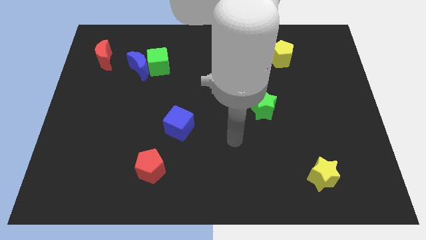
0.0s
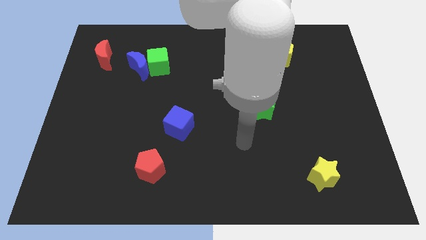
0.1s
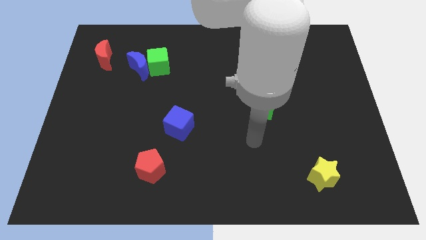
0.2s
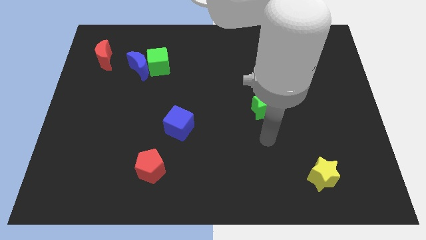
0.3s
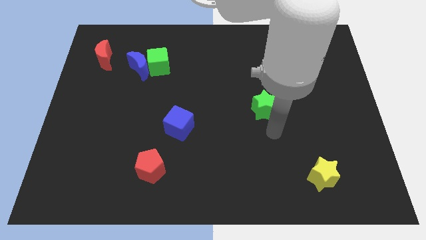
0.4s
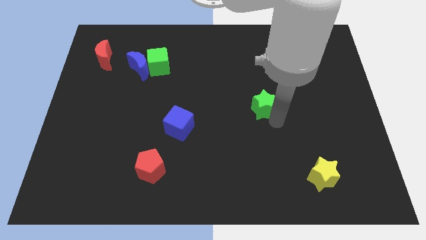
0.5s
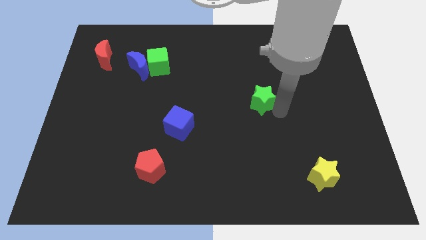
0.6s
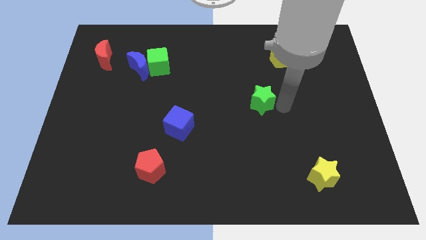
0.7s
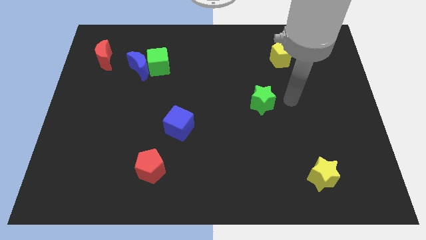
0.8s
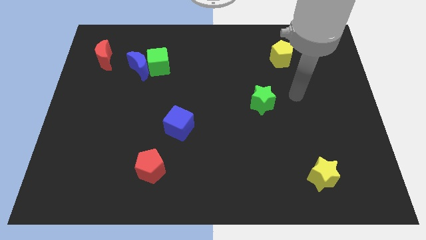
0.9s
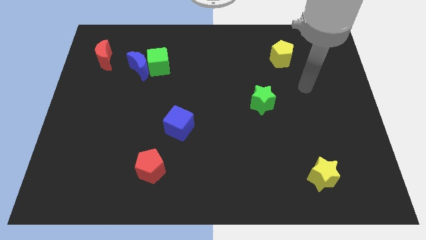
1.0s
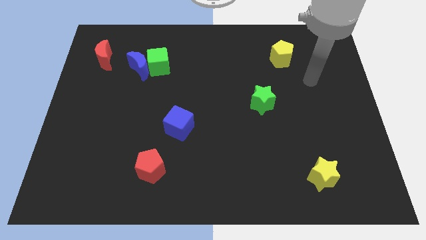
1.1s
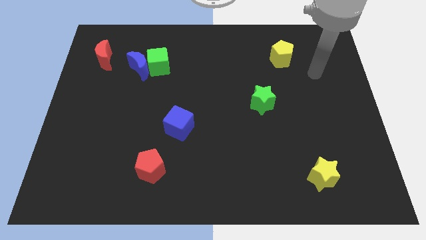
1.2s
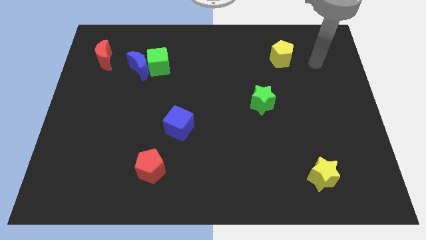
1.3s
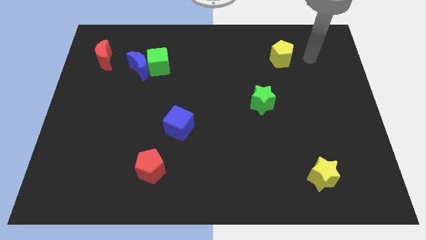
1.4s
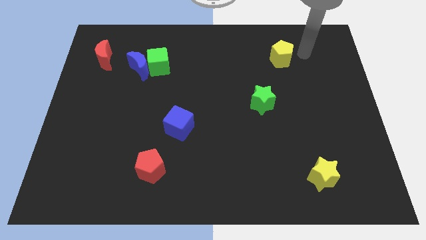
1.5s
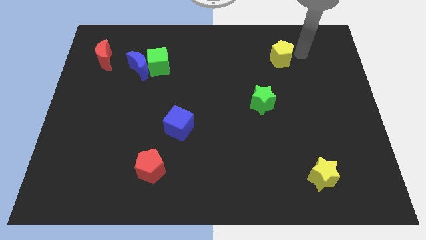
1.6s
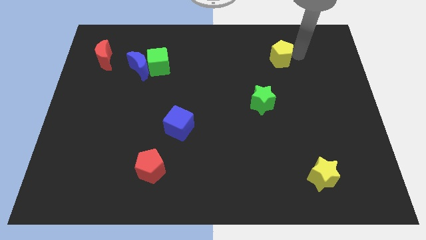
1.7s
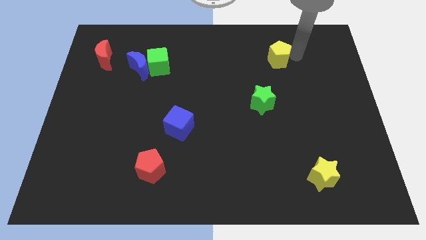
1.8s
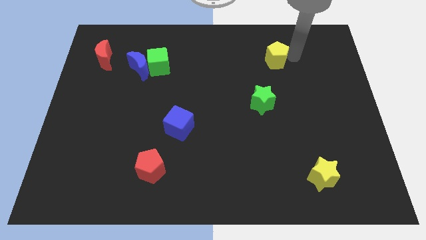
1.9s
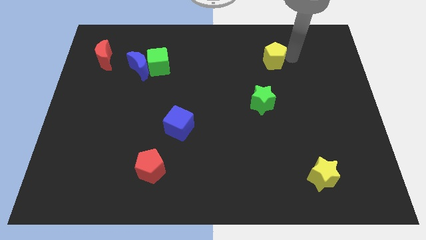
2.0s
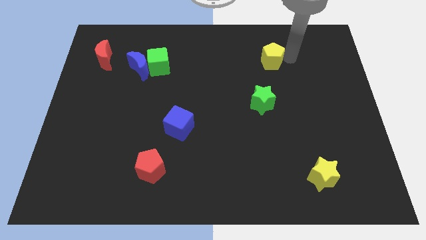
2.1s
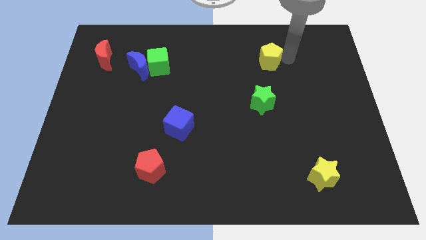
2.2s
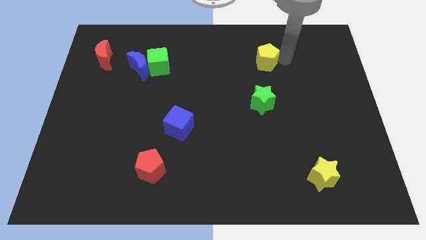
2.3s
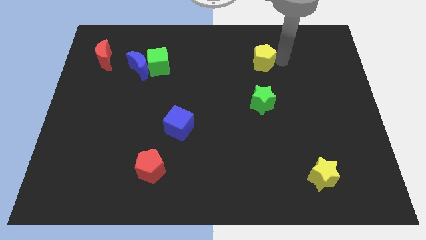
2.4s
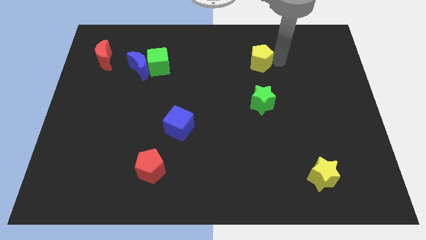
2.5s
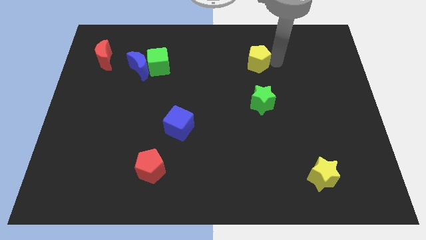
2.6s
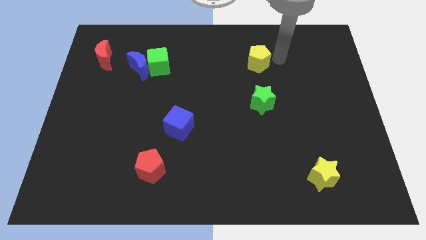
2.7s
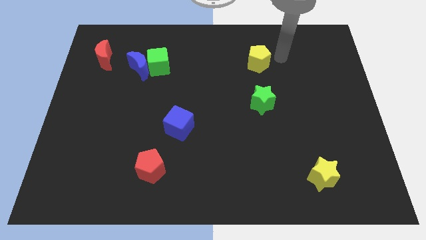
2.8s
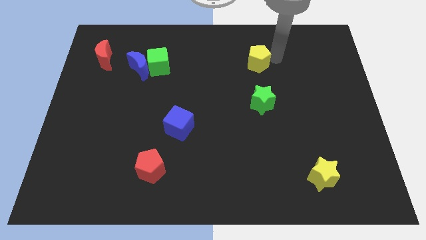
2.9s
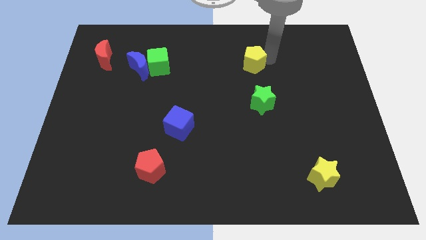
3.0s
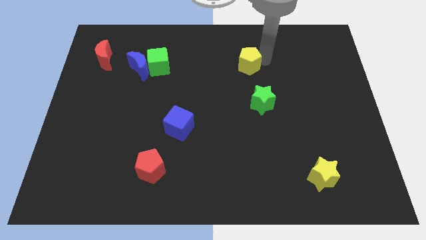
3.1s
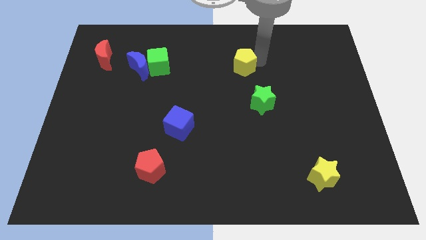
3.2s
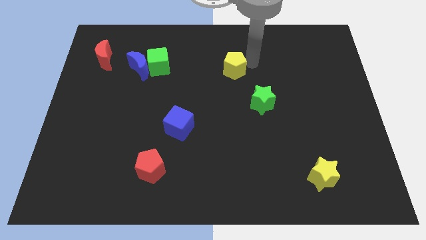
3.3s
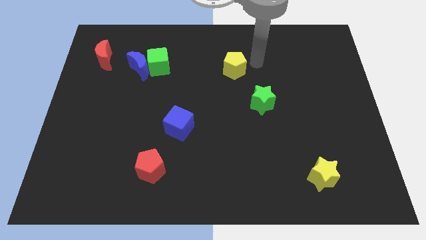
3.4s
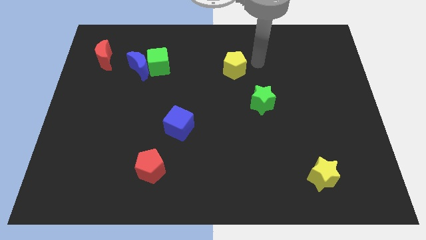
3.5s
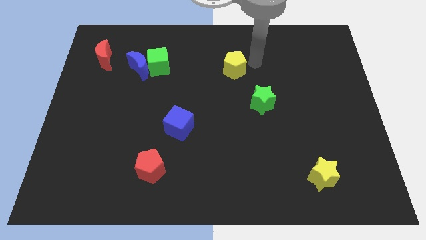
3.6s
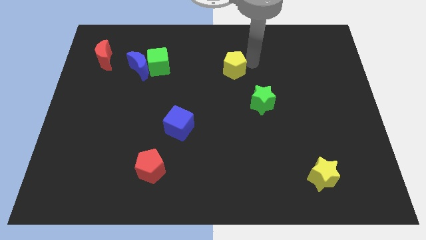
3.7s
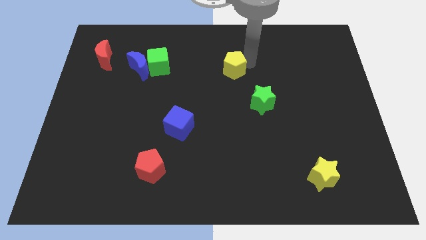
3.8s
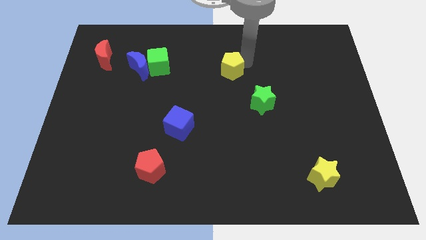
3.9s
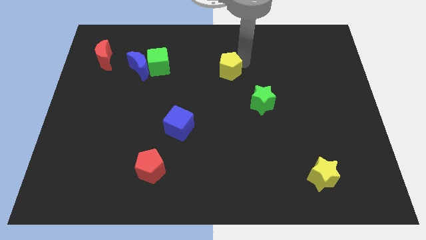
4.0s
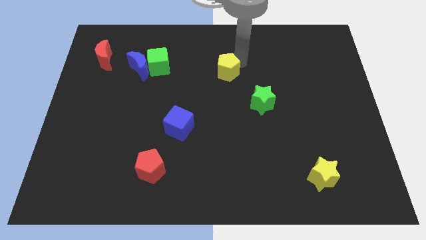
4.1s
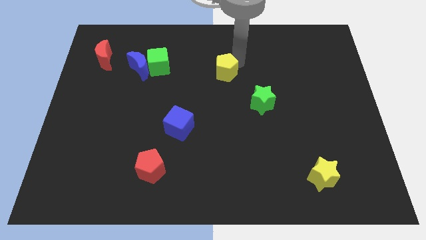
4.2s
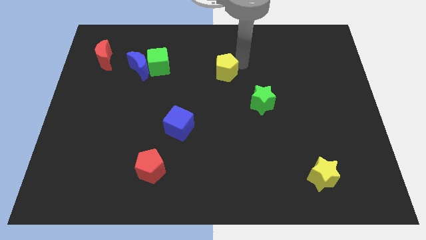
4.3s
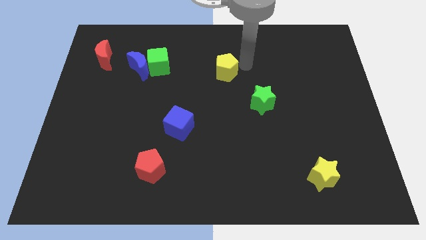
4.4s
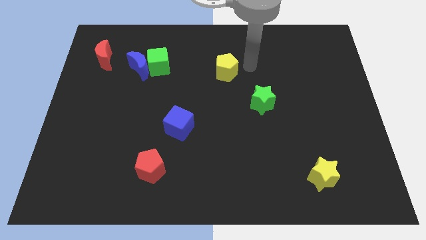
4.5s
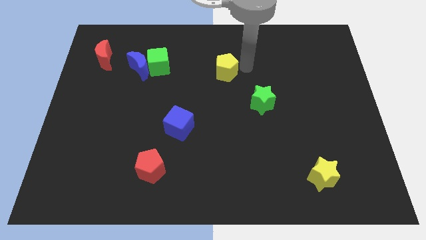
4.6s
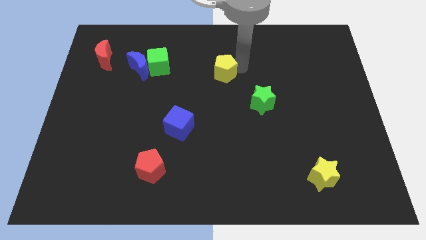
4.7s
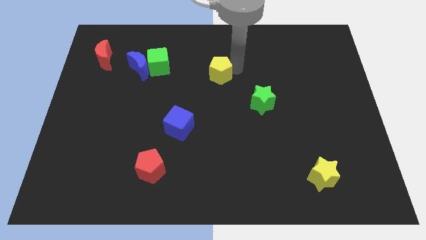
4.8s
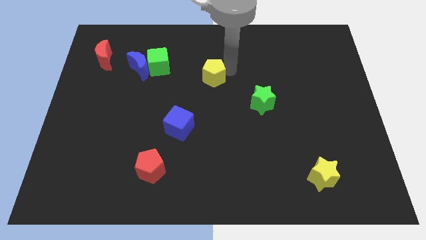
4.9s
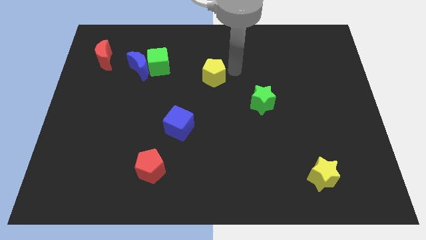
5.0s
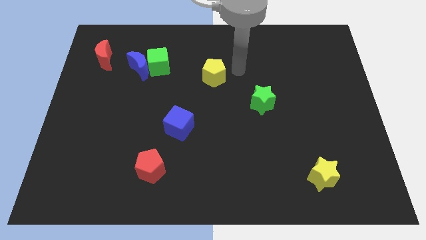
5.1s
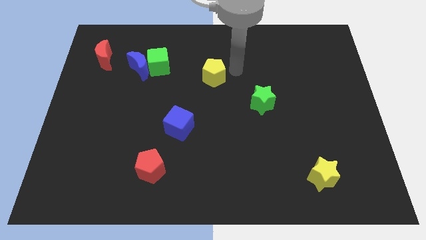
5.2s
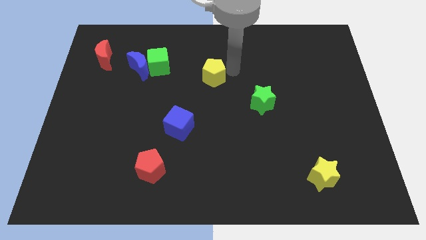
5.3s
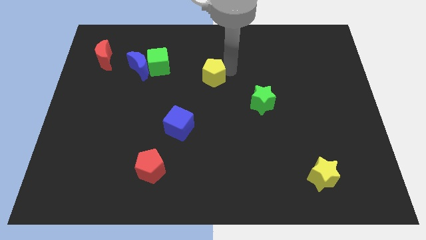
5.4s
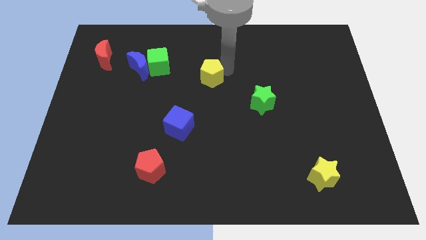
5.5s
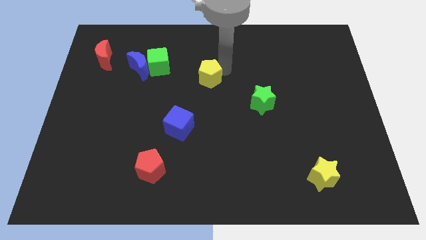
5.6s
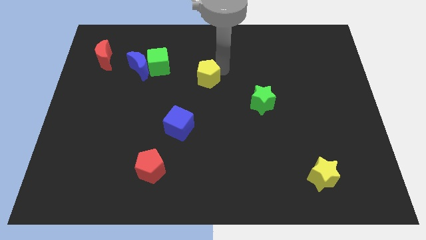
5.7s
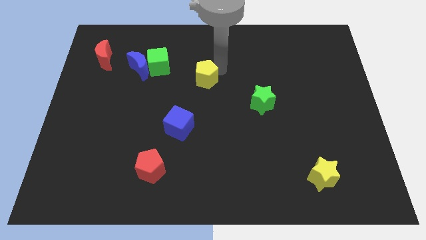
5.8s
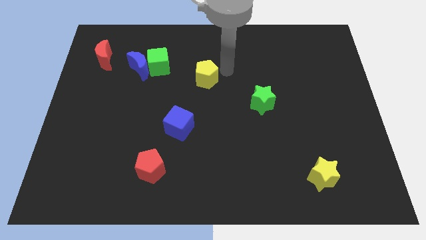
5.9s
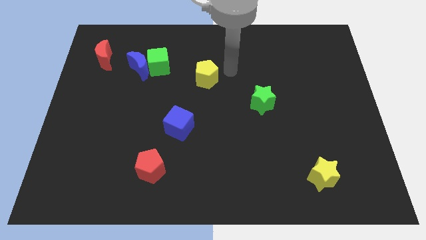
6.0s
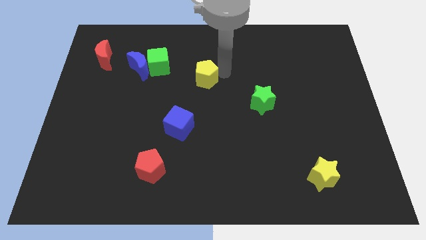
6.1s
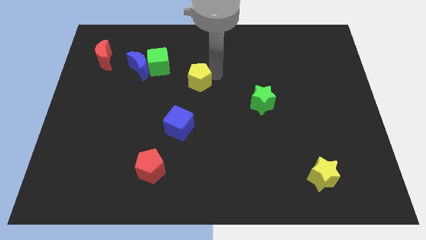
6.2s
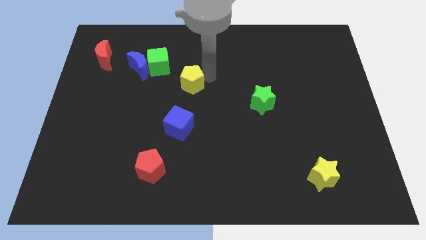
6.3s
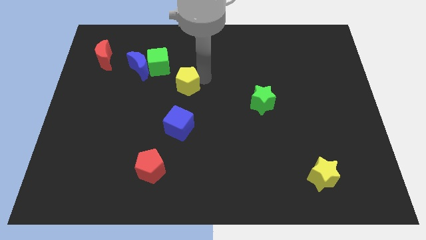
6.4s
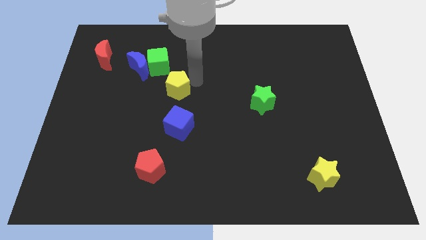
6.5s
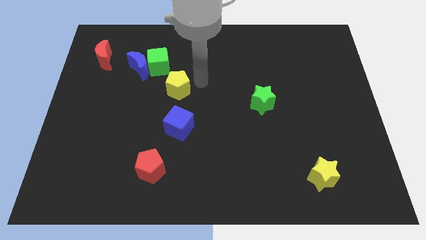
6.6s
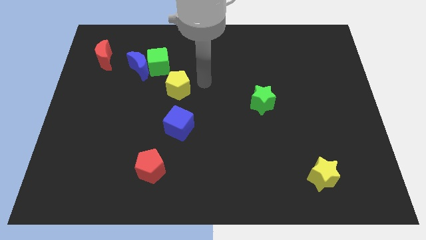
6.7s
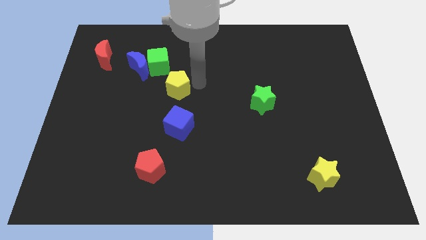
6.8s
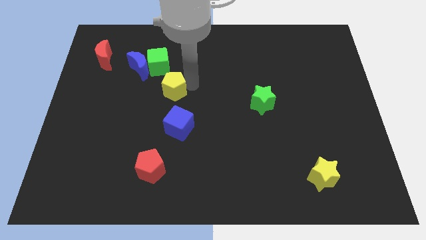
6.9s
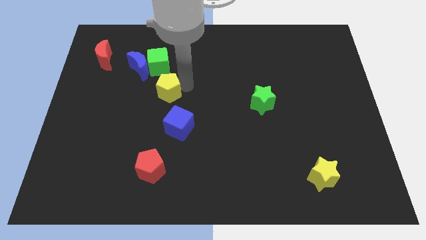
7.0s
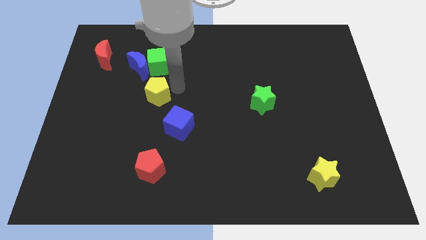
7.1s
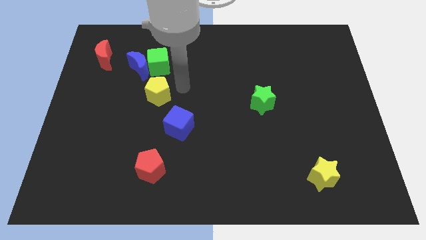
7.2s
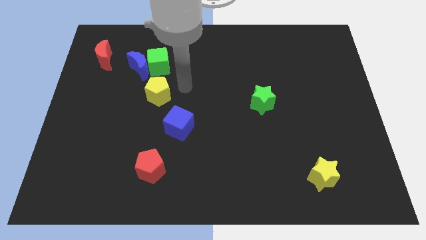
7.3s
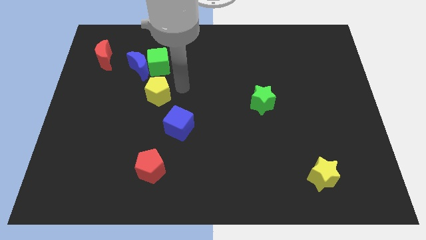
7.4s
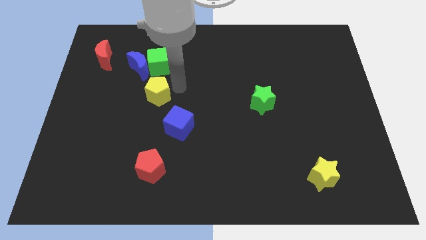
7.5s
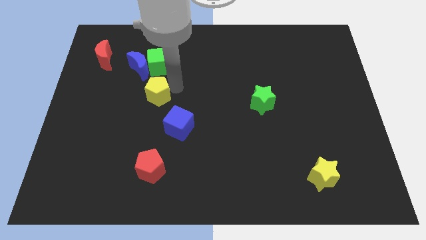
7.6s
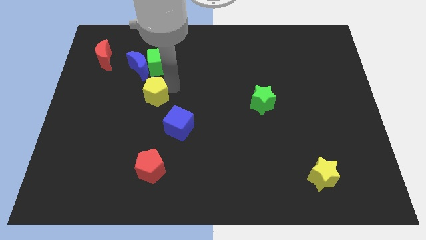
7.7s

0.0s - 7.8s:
put the yellow pentagon to the bottom of the blue moon
